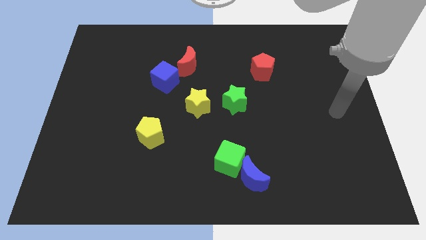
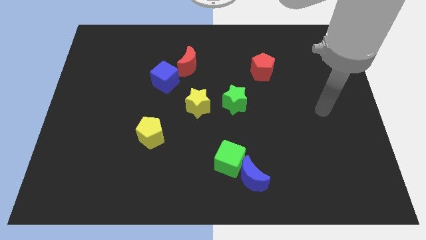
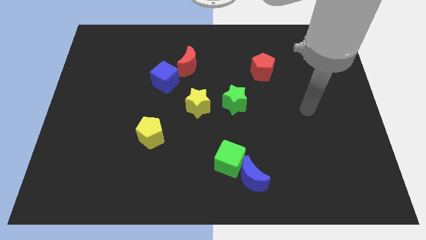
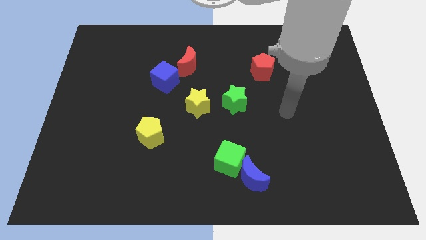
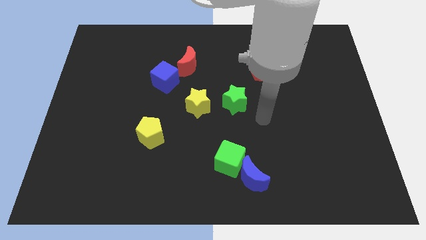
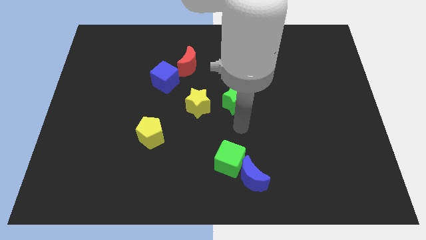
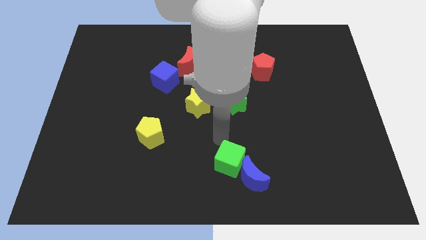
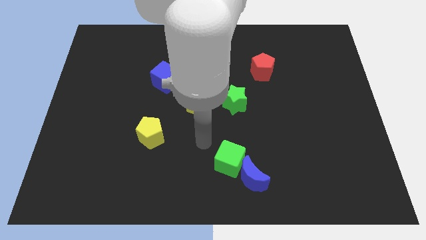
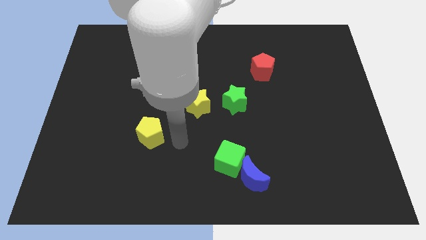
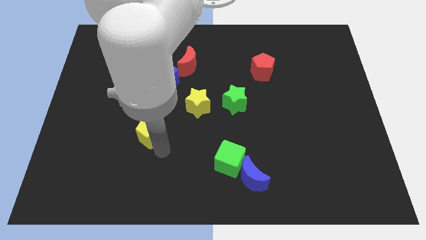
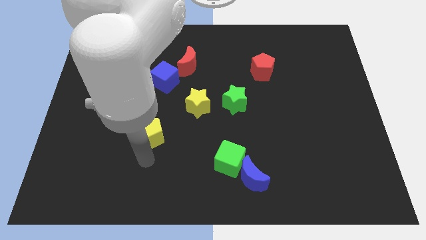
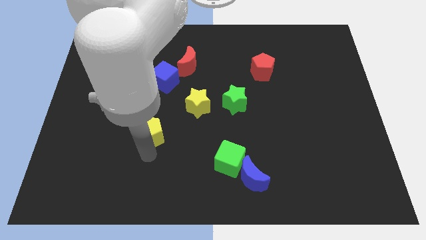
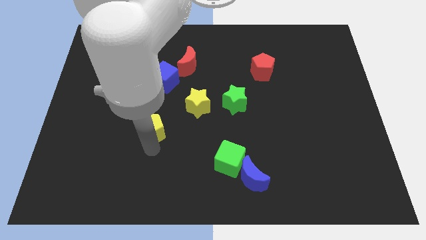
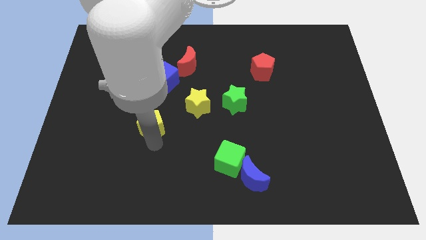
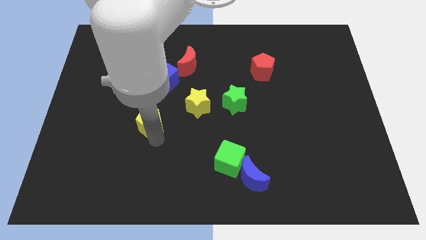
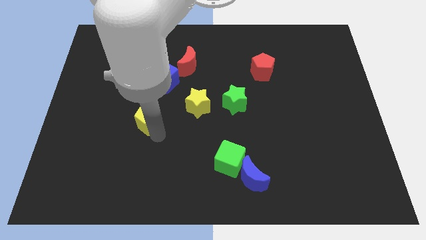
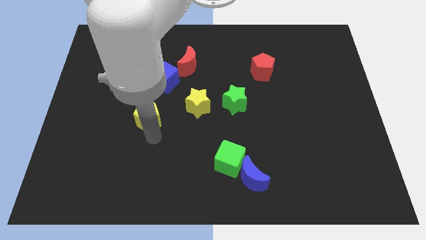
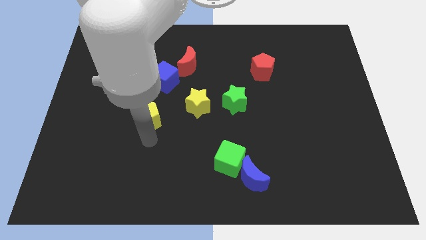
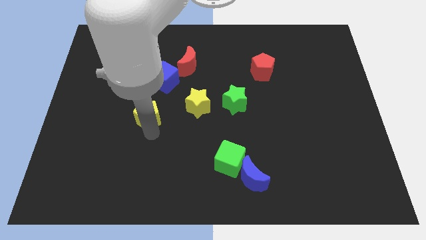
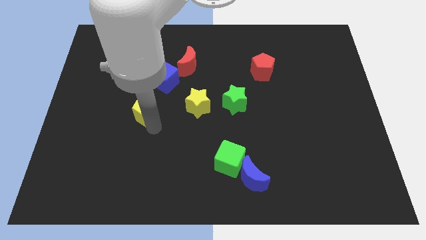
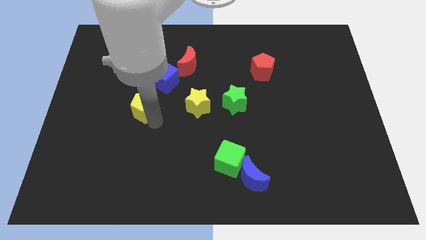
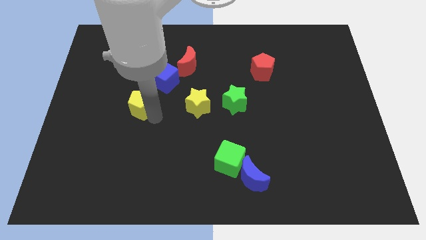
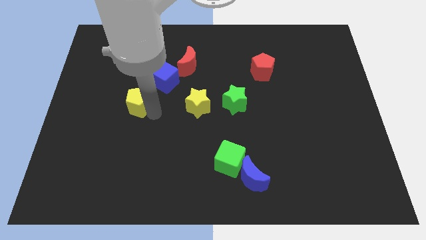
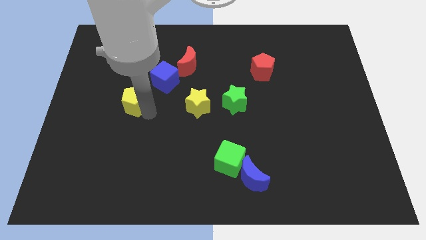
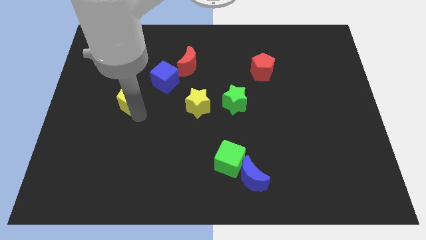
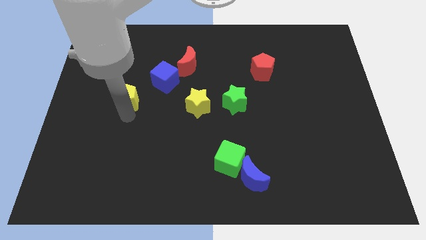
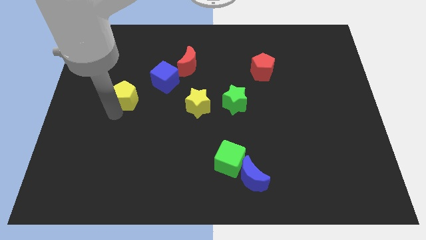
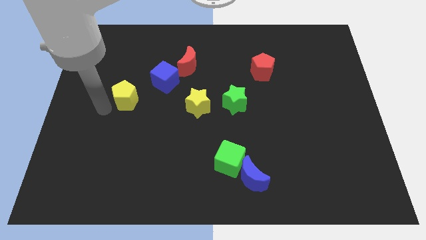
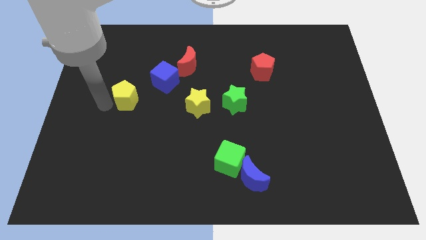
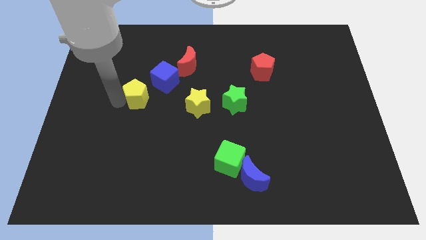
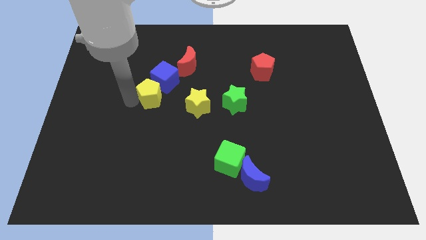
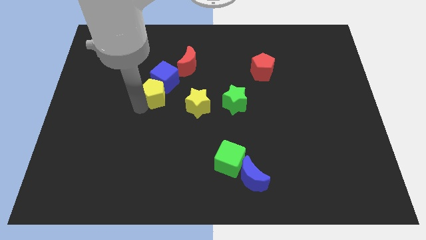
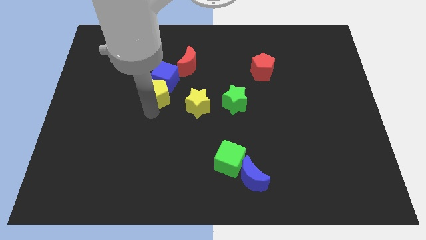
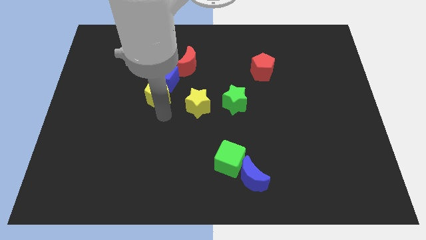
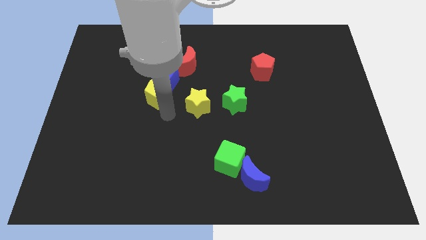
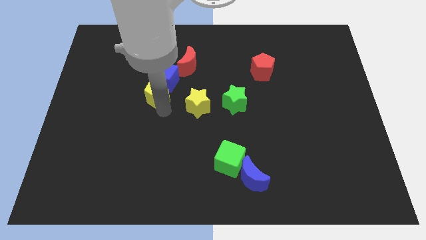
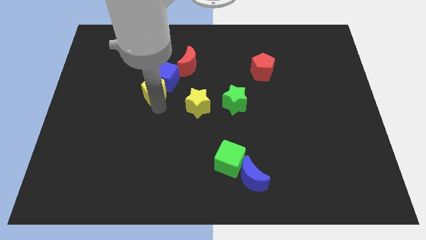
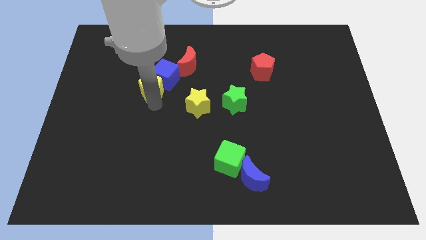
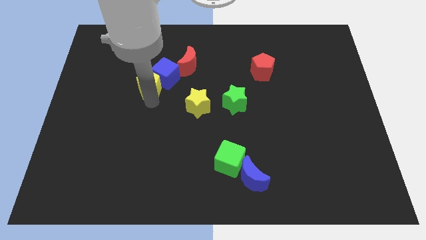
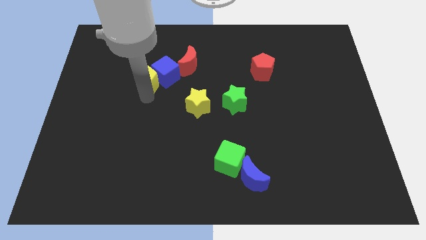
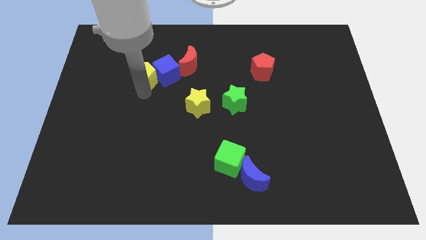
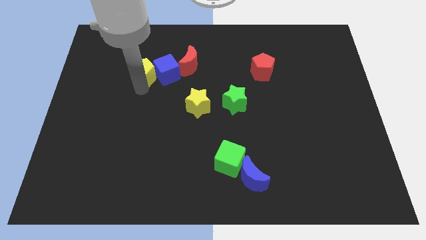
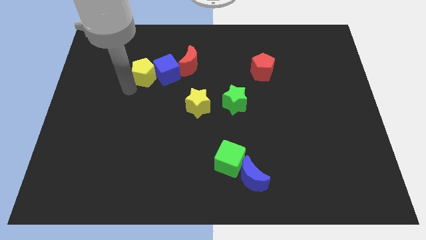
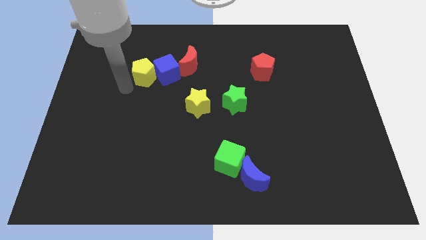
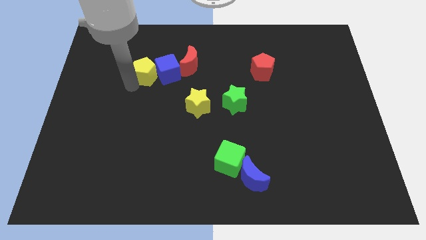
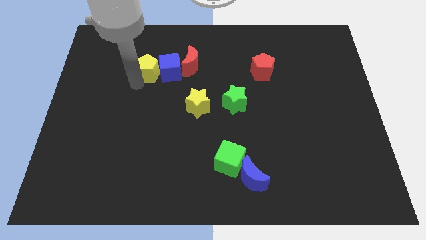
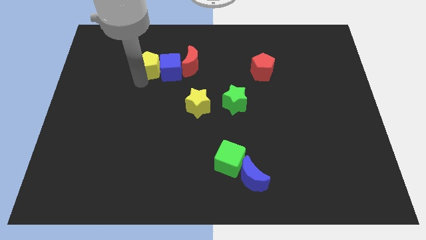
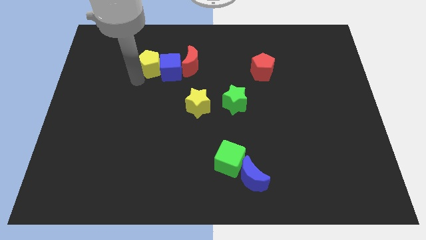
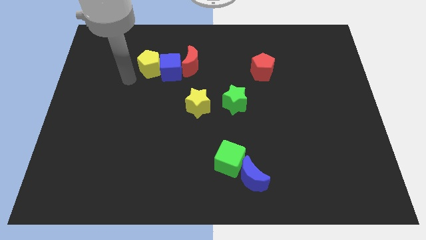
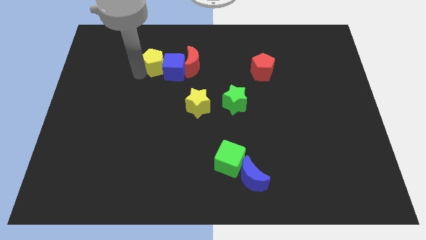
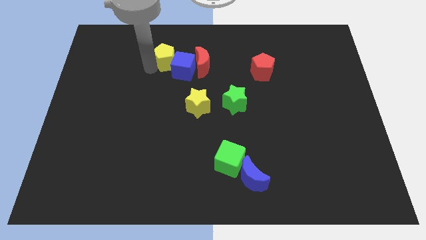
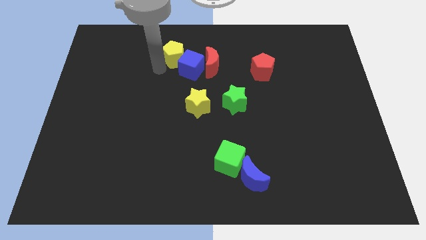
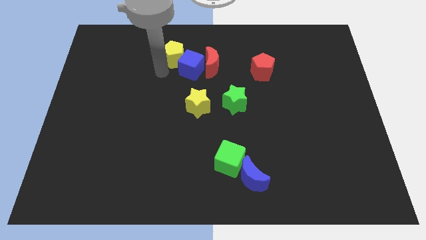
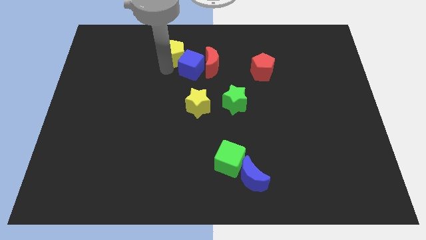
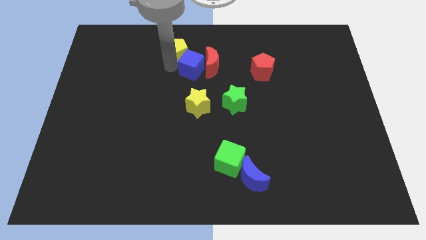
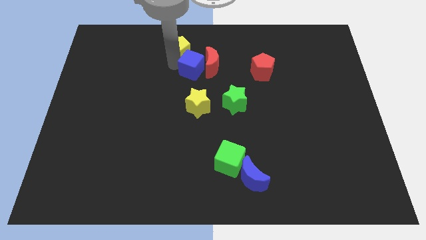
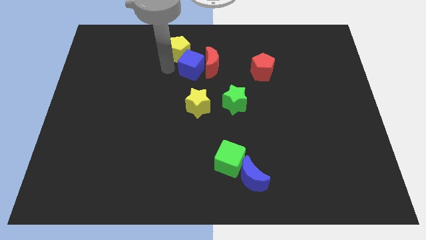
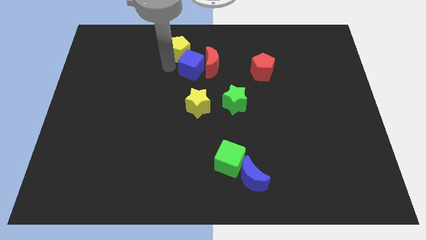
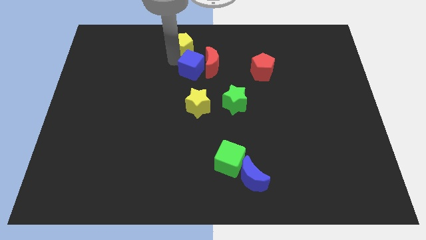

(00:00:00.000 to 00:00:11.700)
move the yellow pentagon to the towards your base
